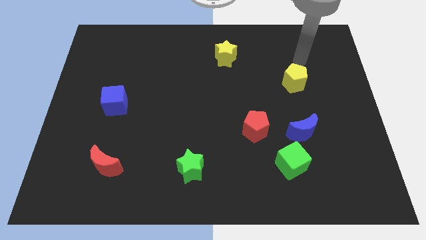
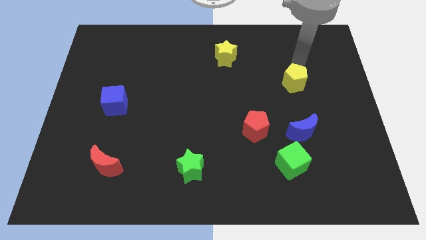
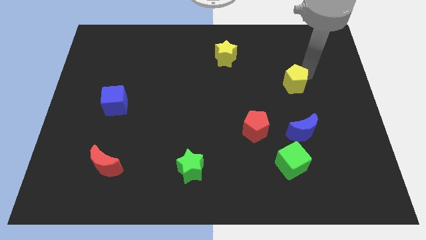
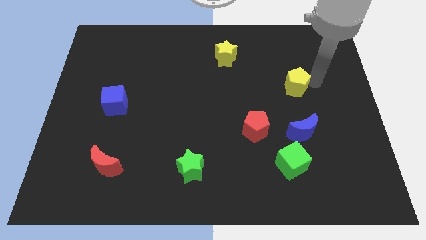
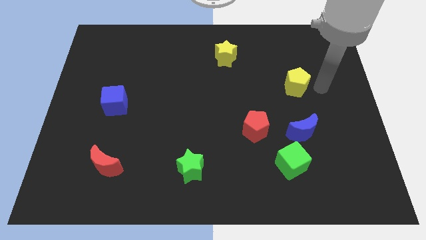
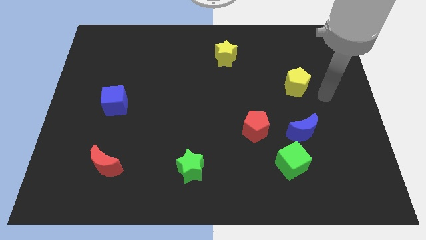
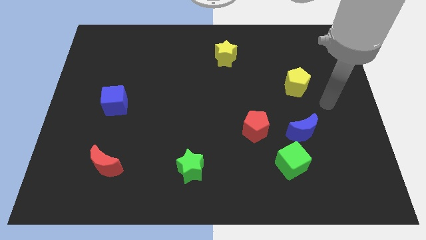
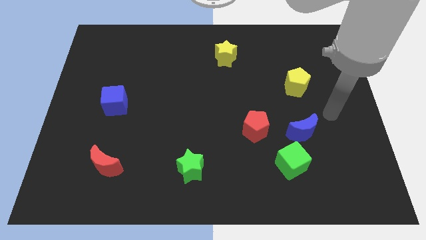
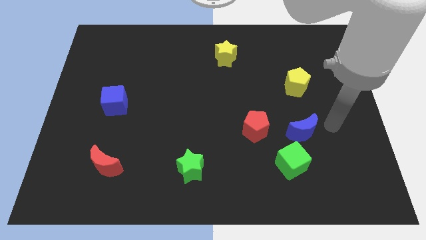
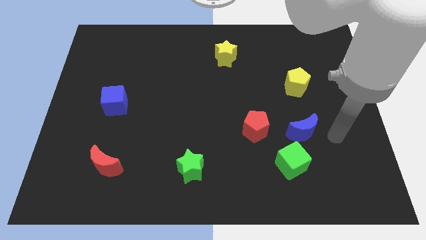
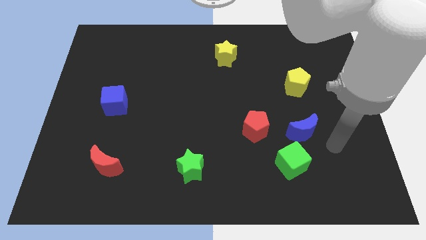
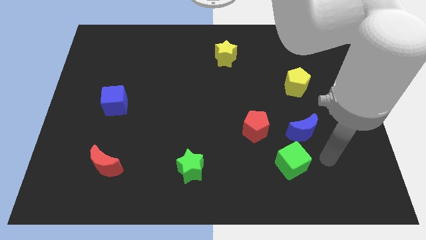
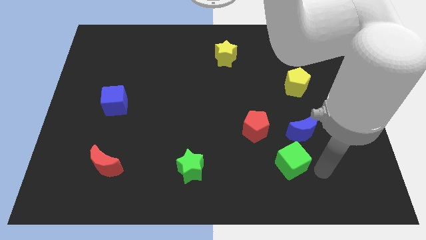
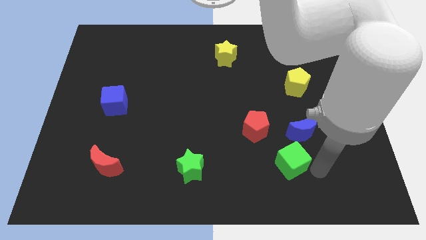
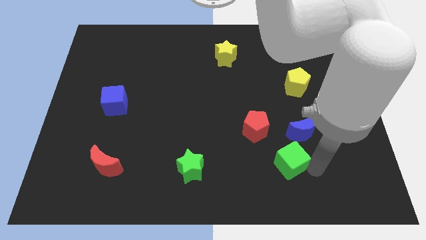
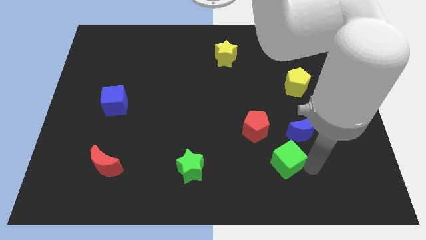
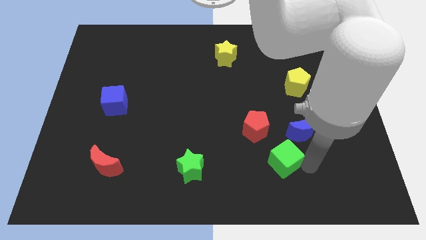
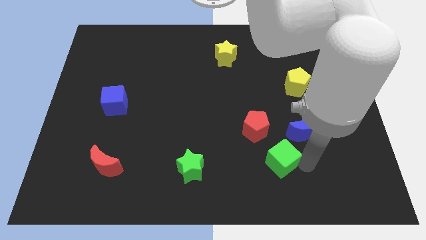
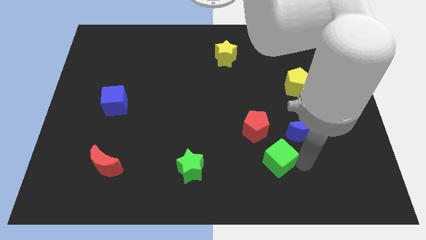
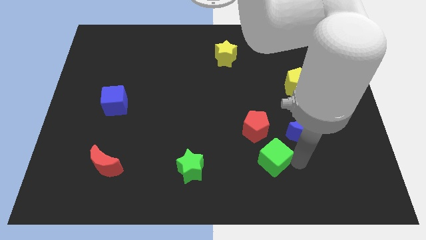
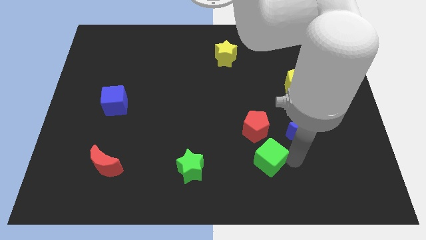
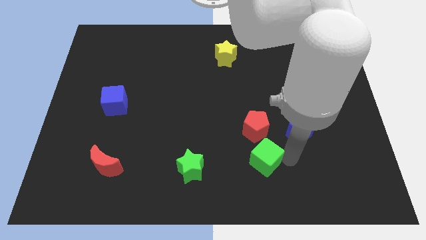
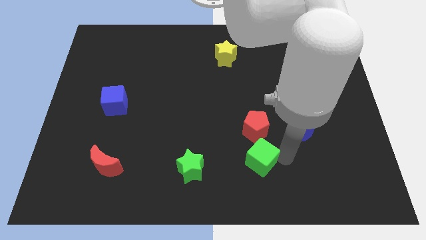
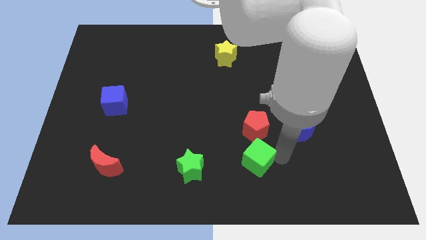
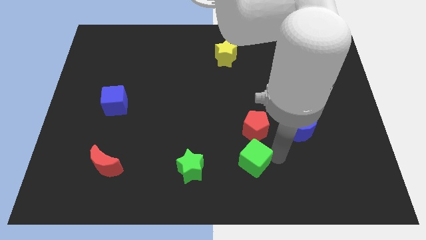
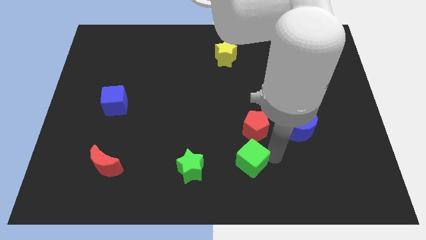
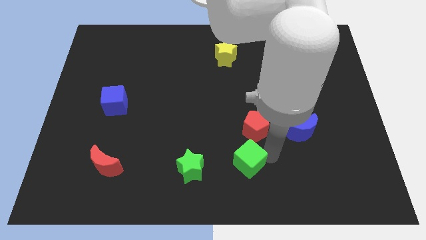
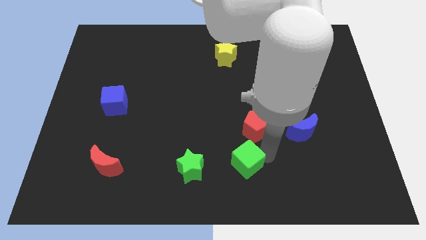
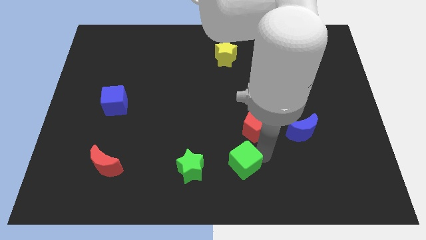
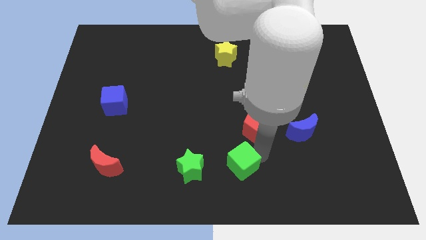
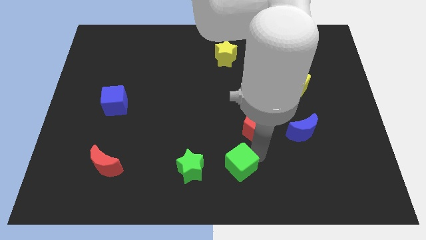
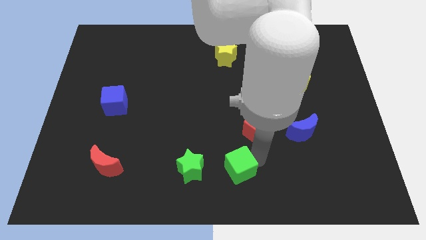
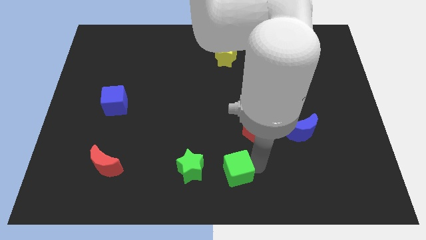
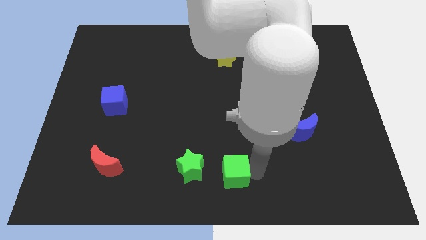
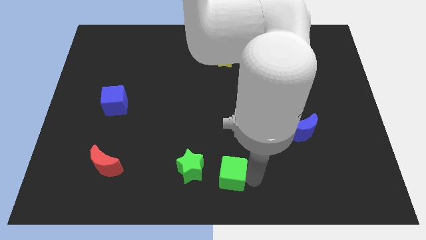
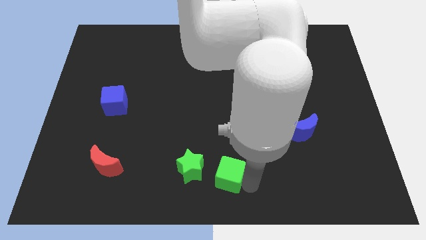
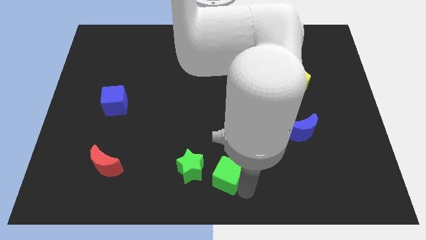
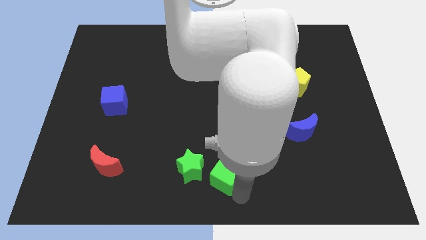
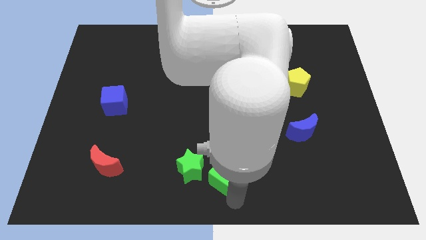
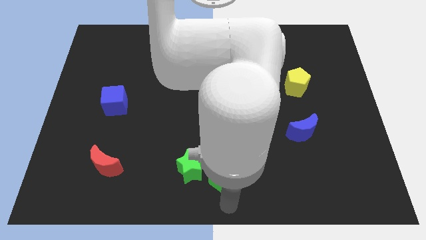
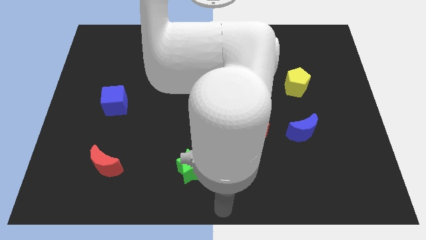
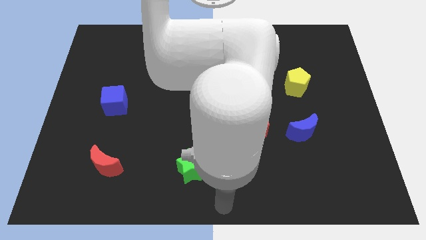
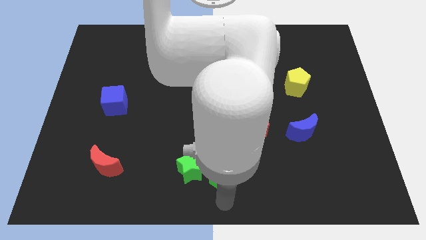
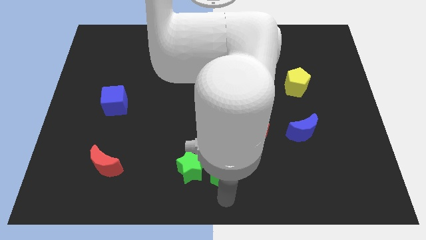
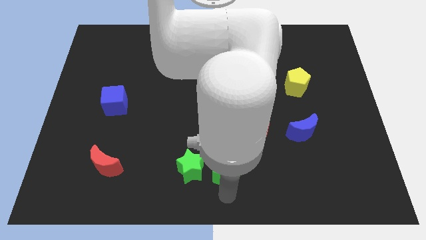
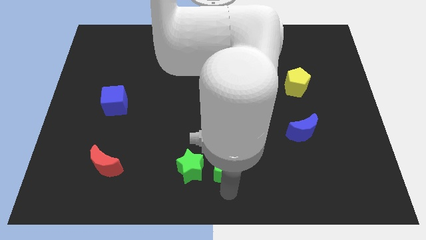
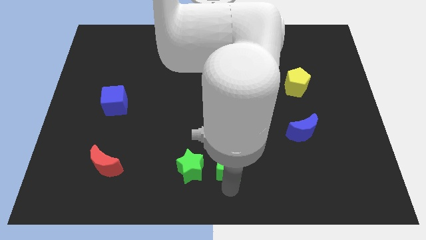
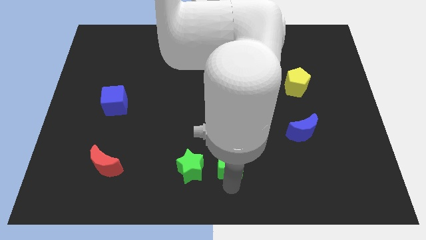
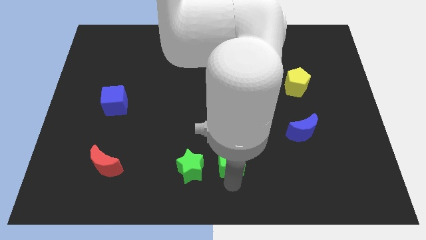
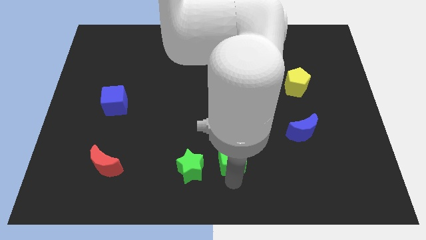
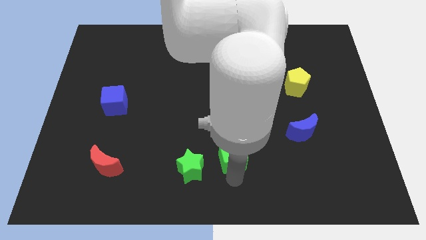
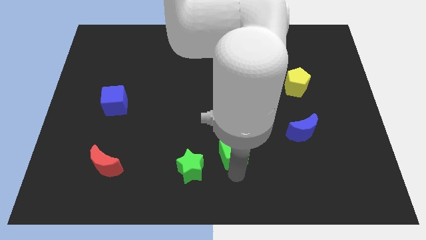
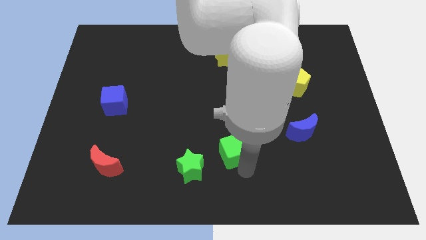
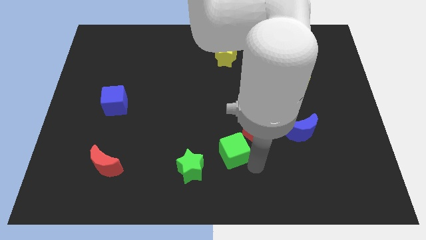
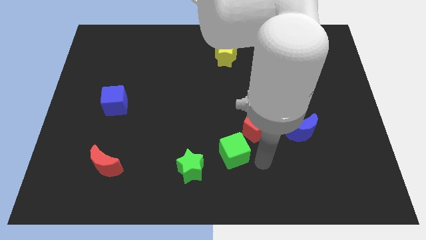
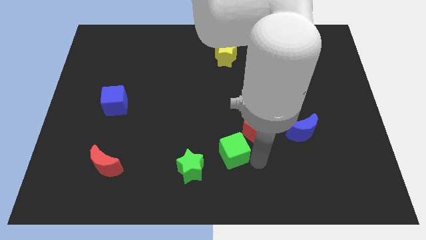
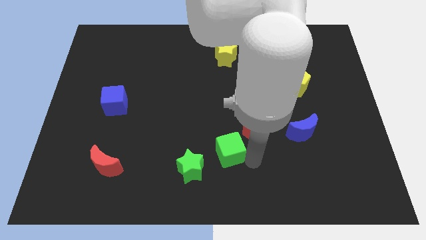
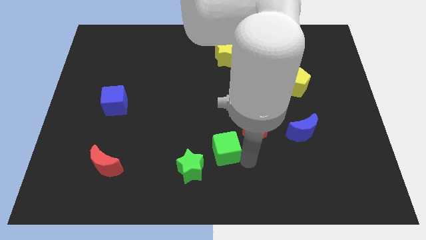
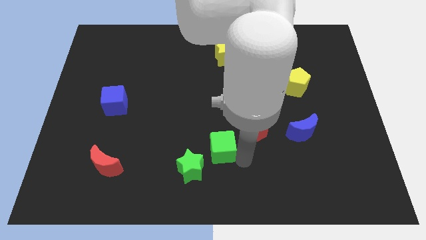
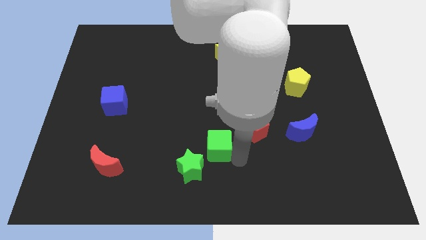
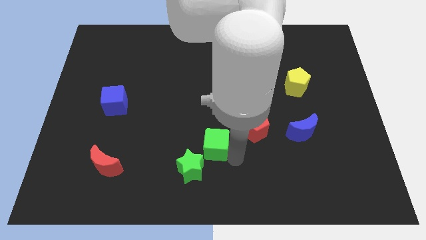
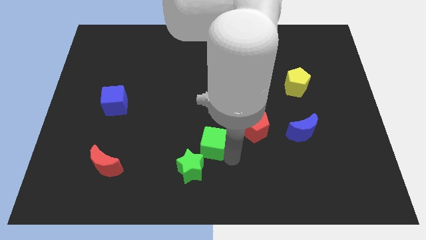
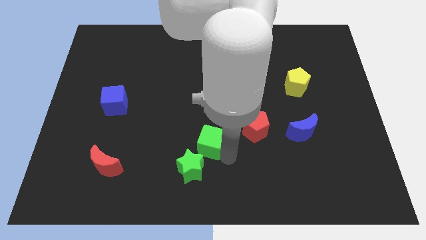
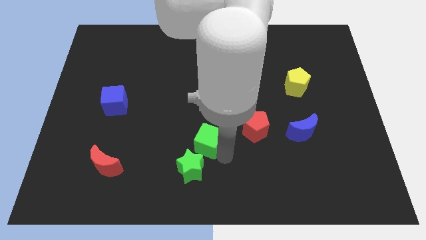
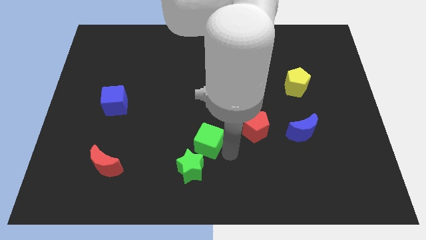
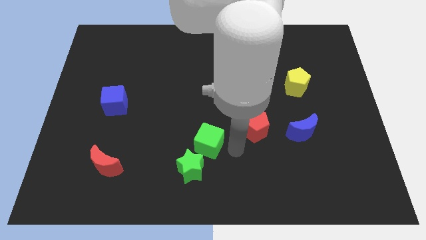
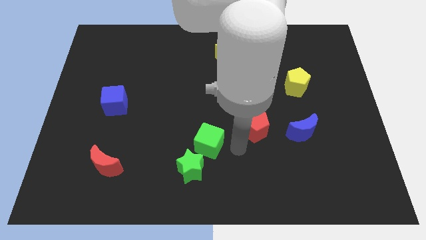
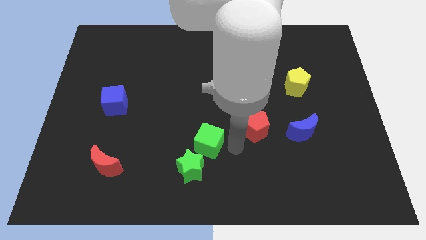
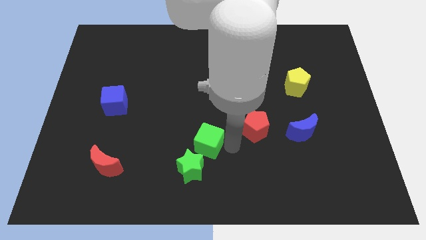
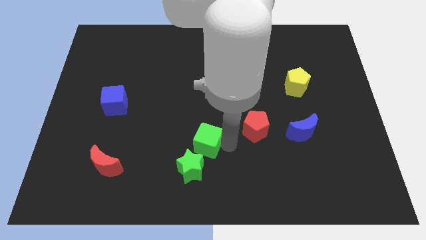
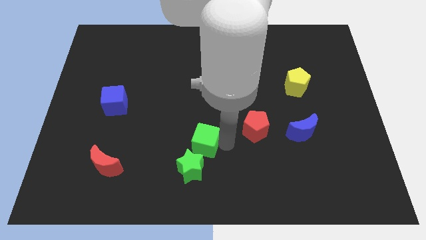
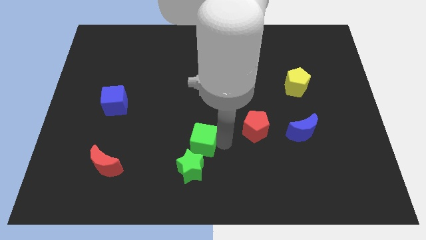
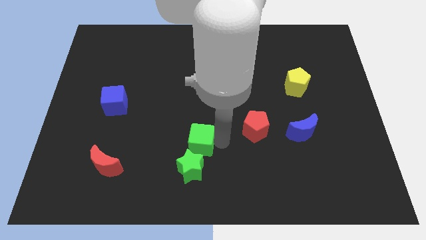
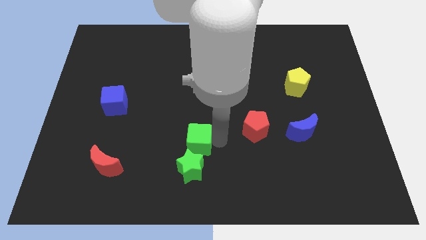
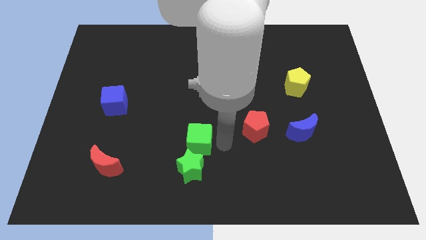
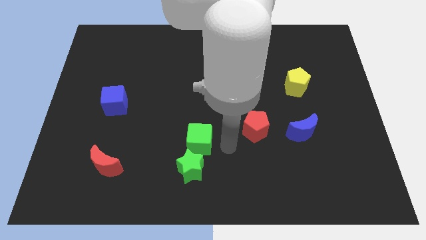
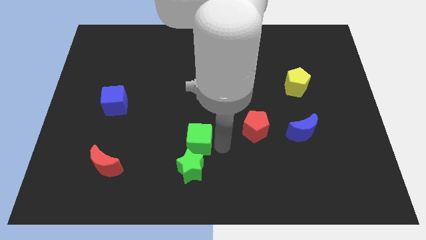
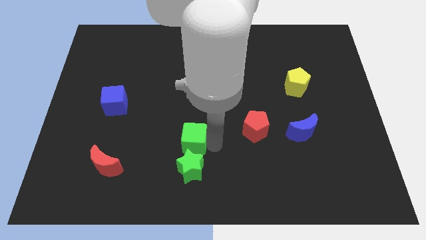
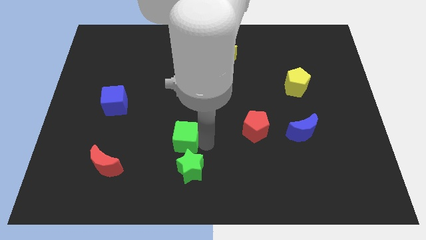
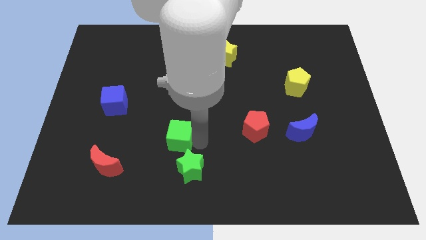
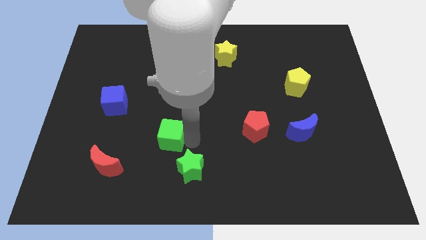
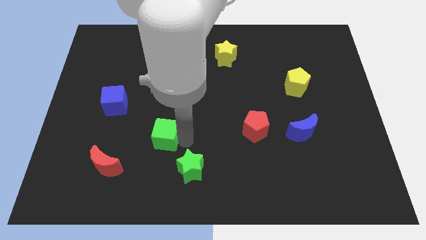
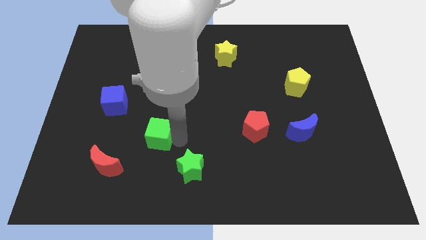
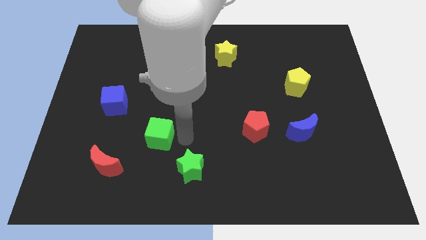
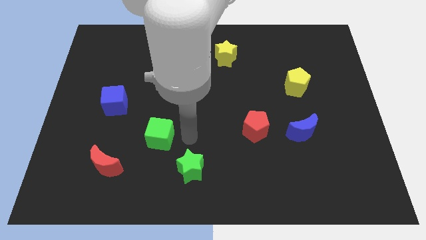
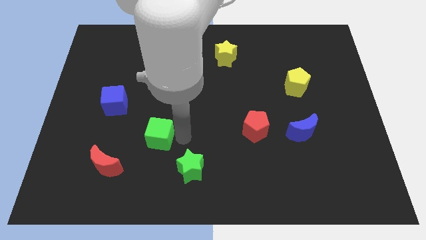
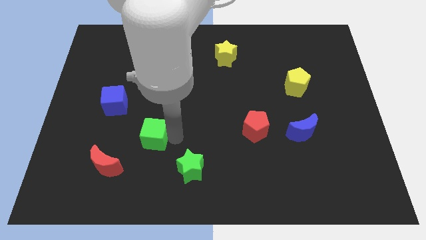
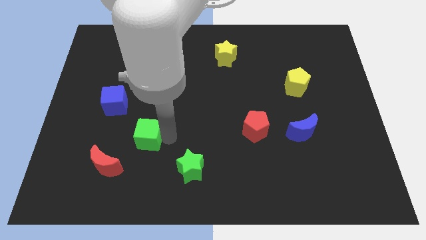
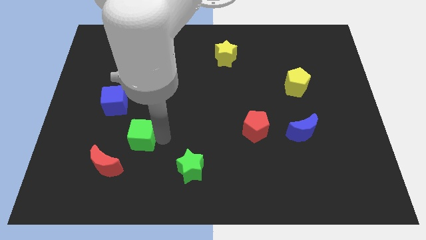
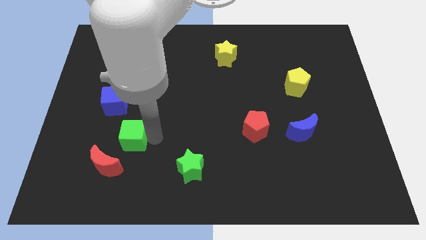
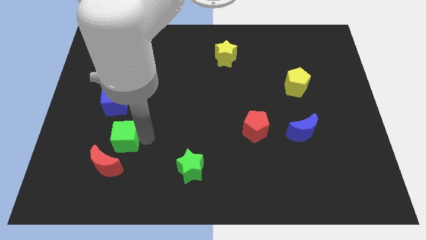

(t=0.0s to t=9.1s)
slide the green cube to the bottom of the blue cube
